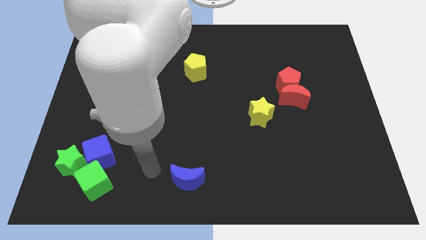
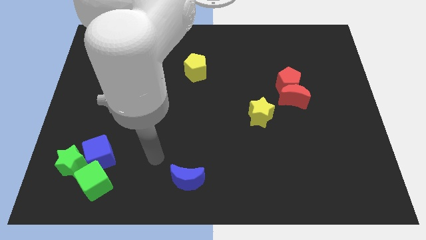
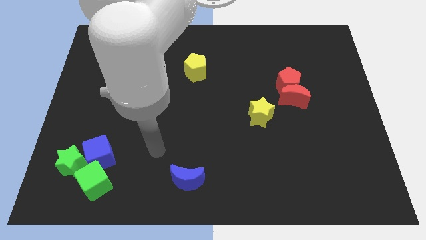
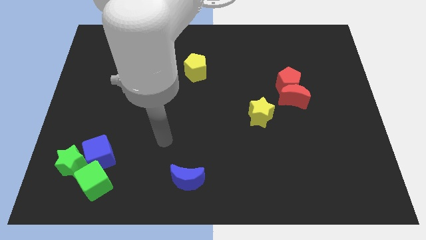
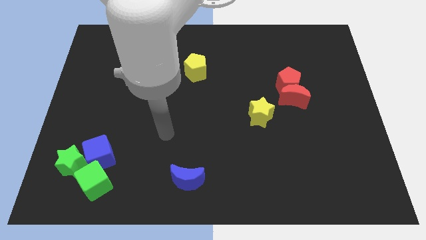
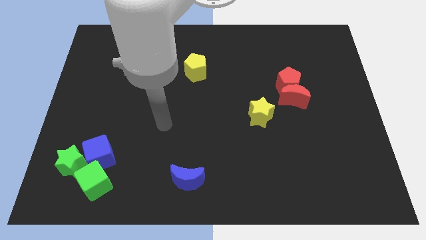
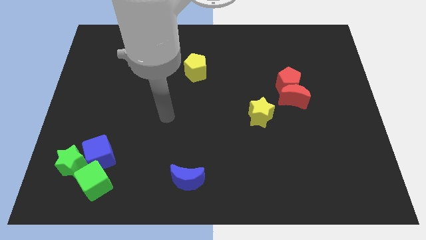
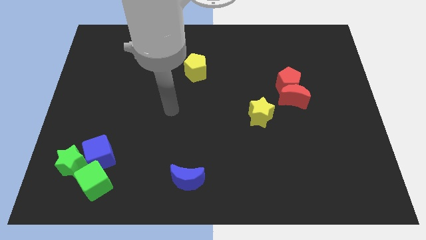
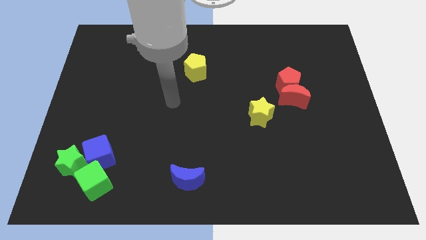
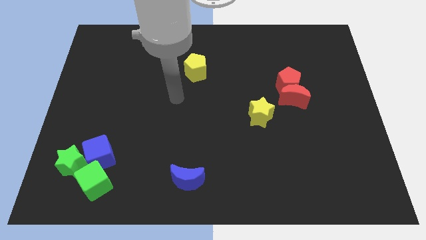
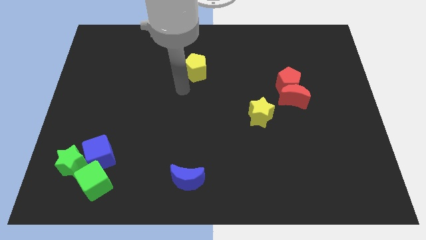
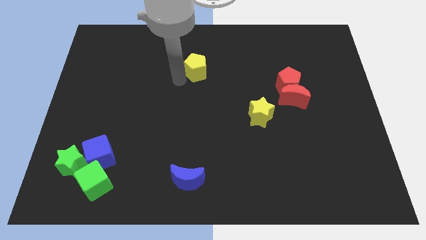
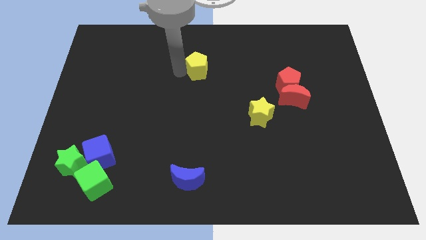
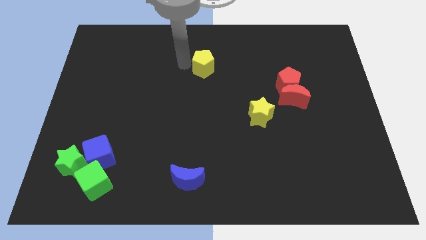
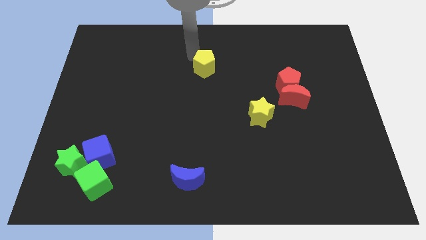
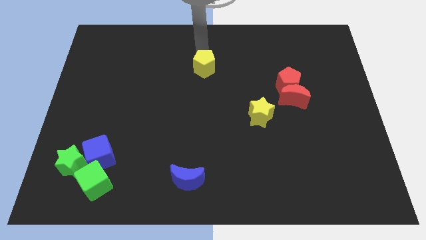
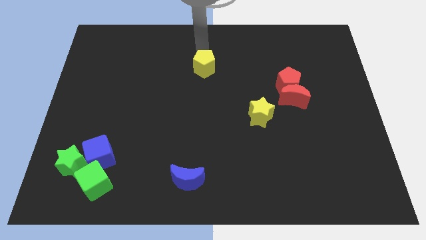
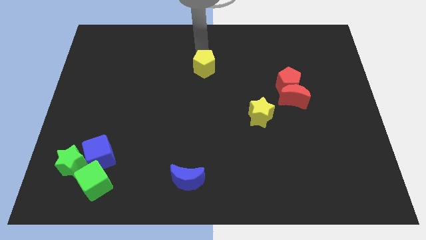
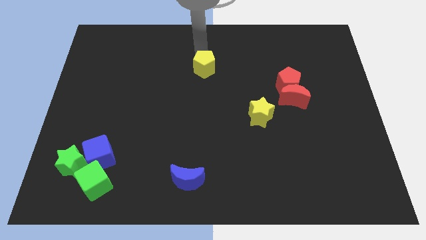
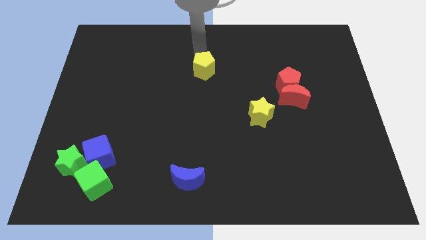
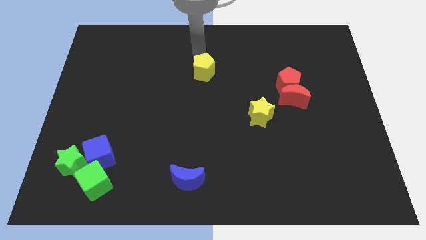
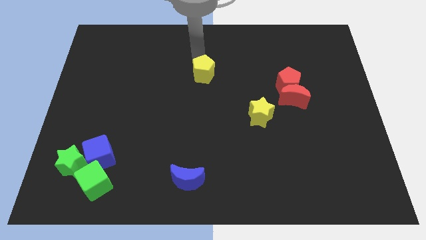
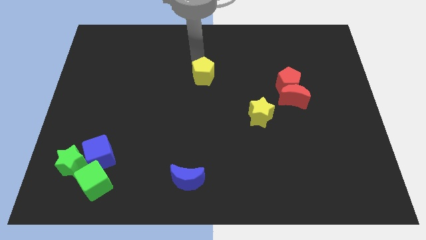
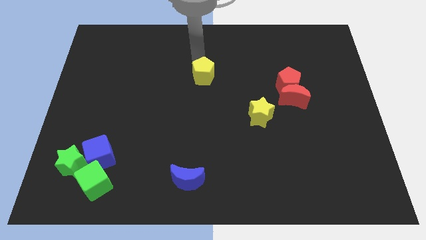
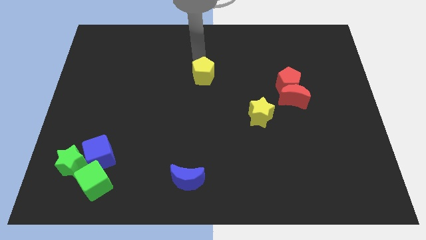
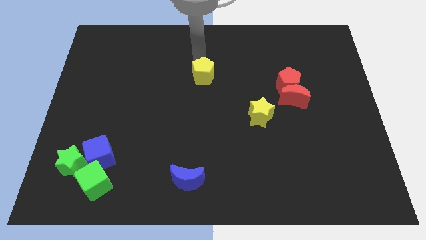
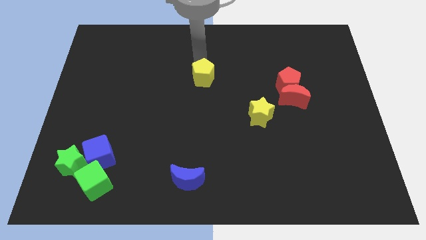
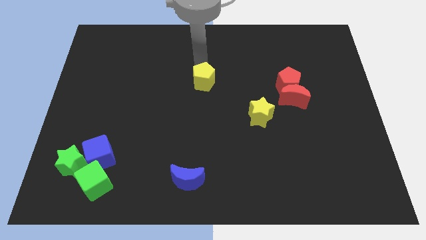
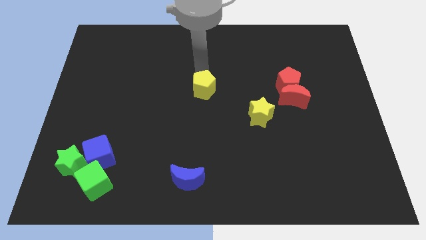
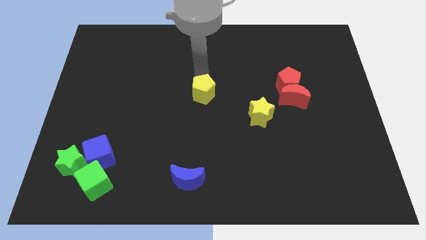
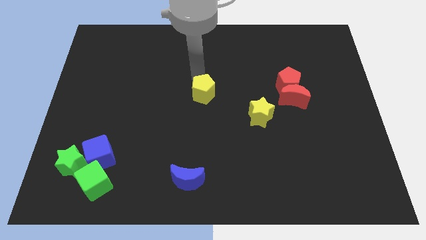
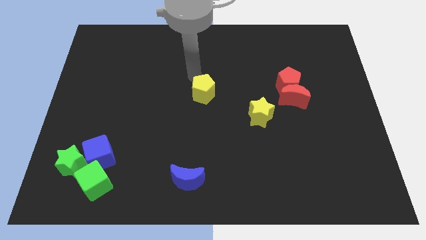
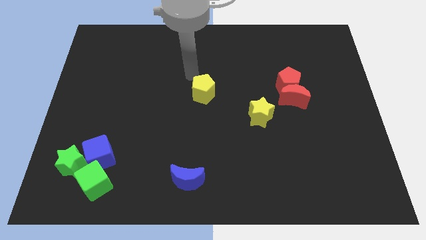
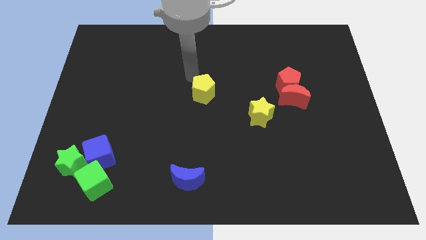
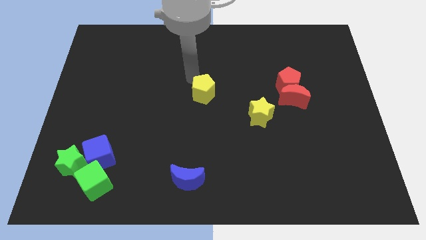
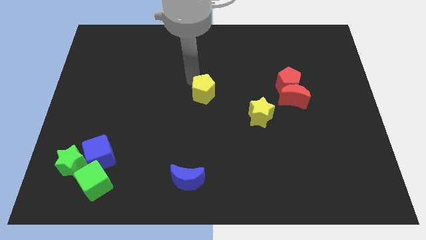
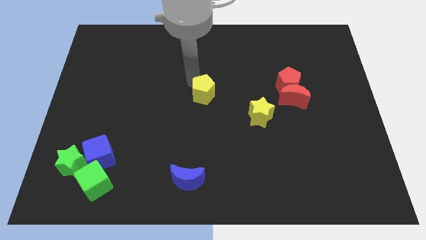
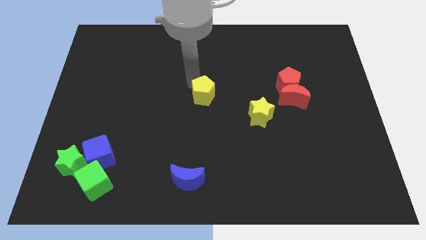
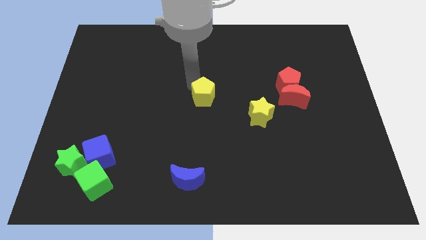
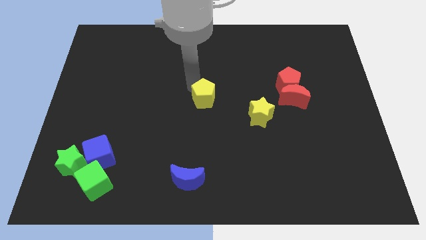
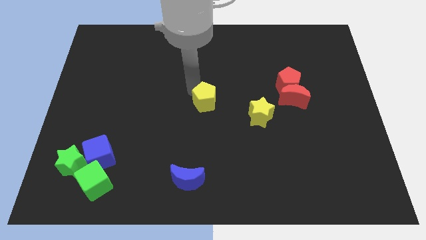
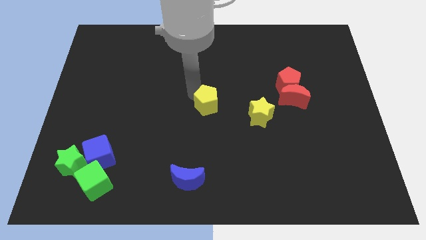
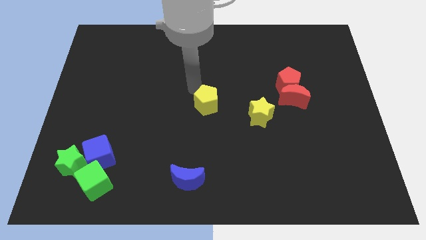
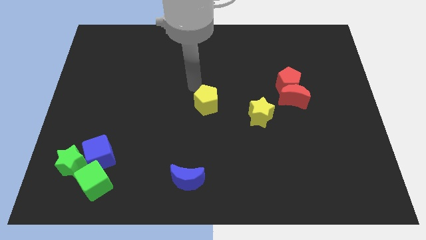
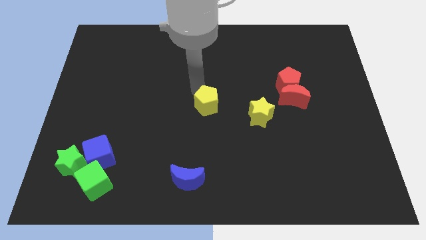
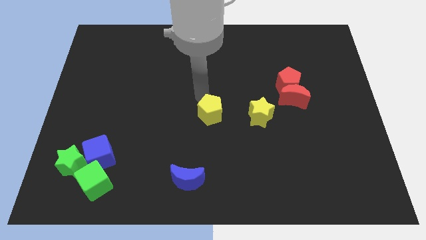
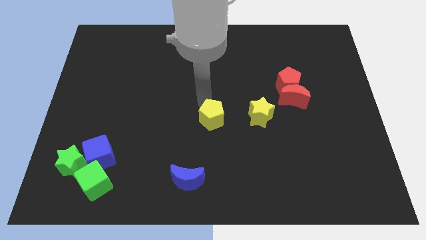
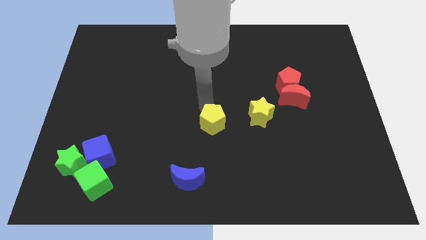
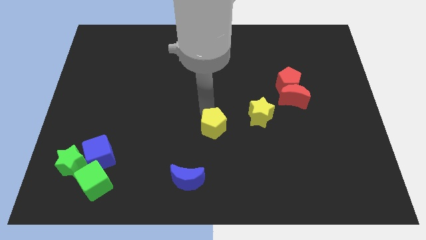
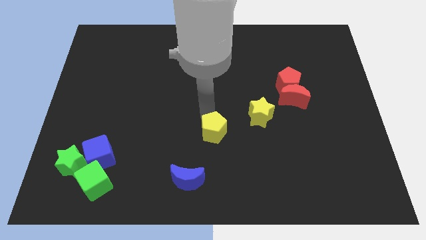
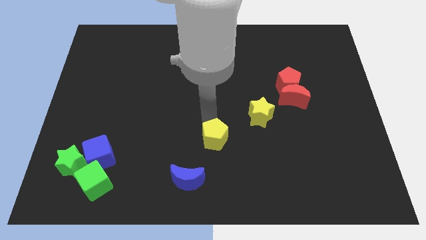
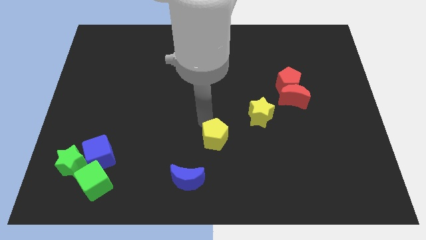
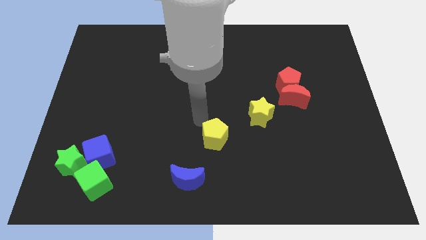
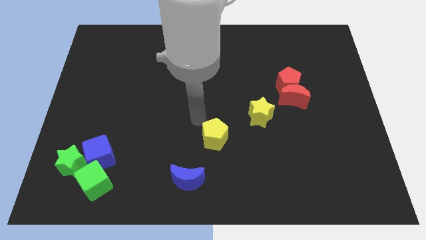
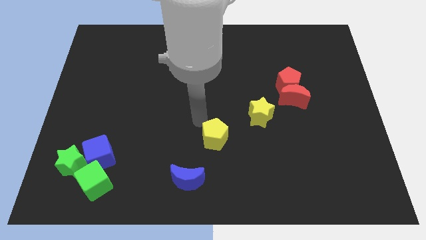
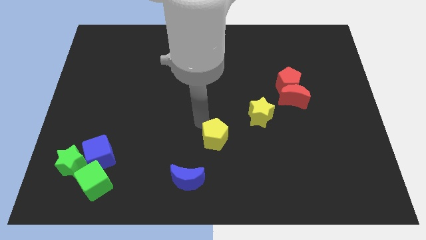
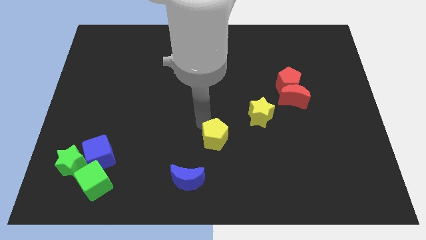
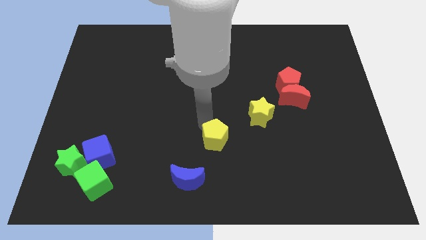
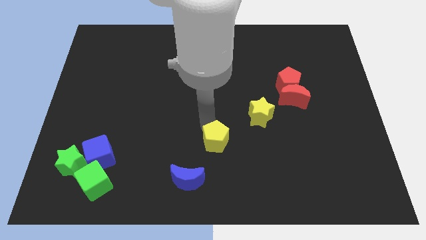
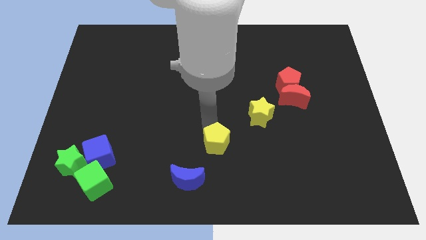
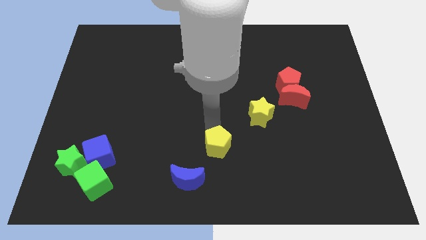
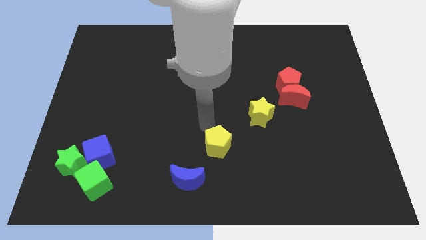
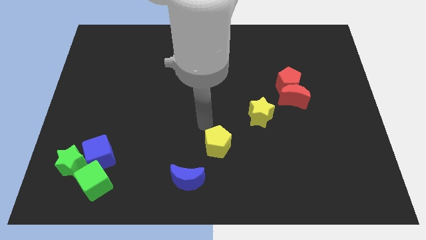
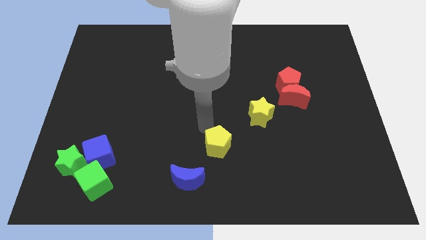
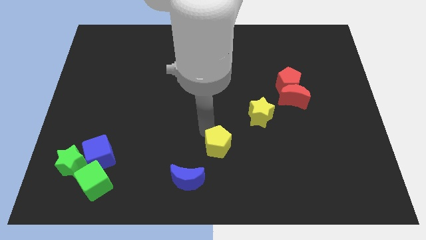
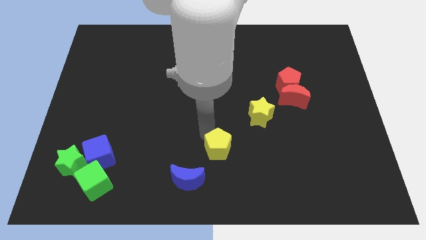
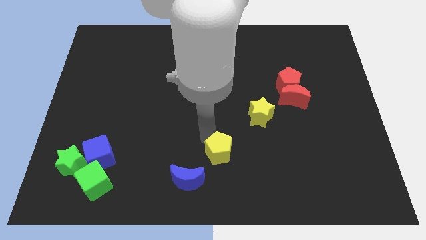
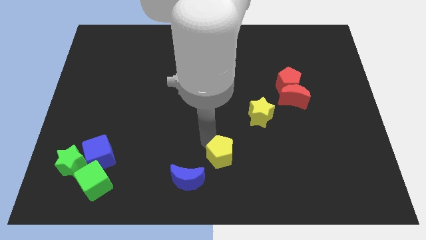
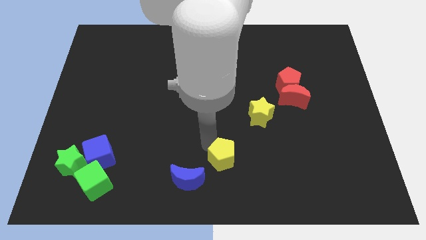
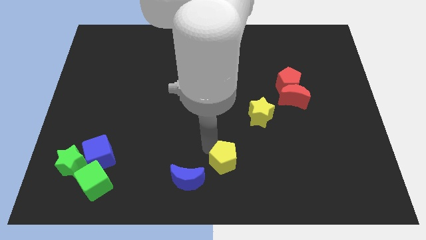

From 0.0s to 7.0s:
put the yellow pentagon to the right of the blue moon

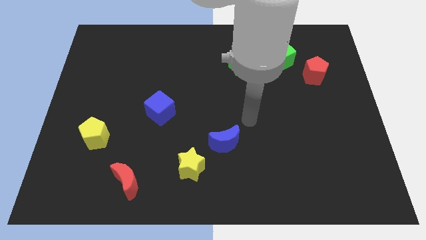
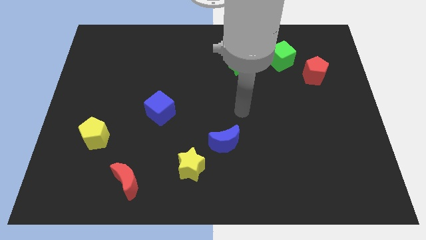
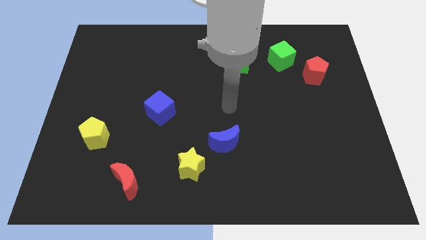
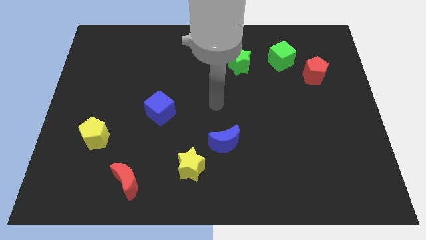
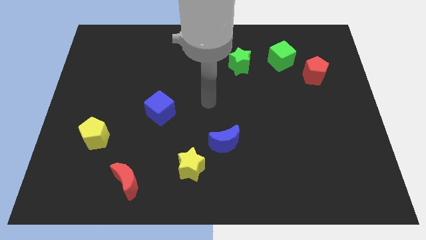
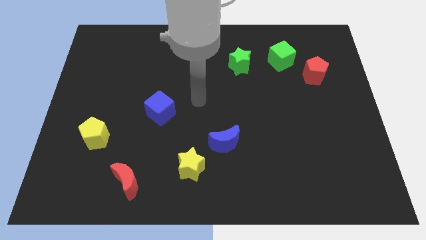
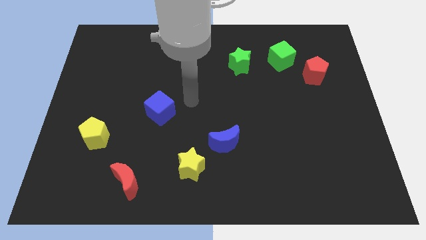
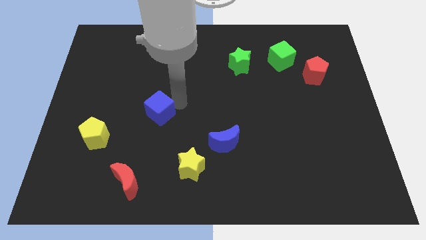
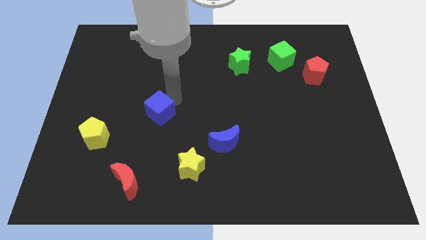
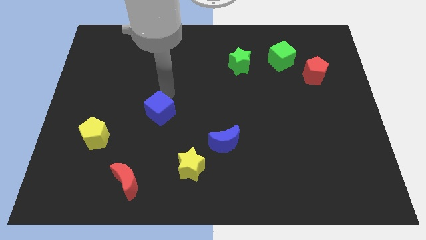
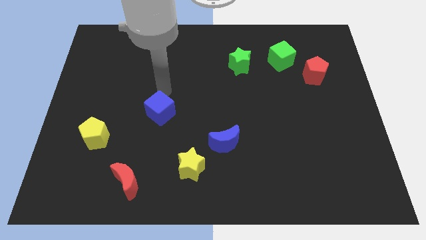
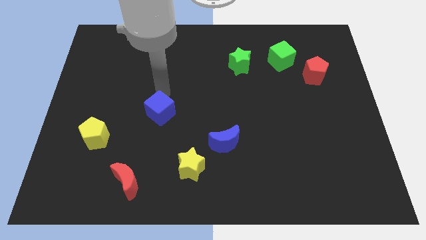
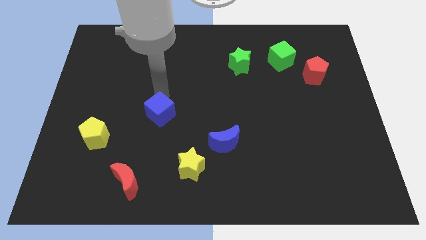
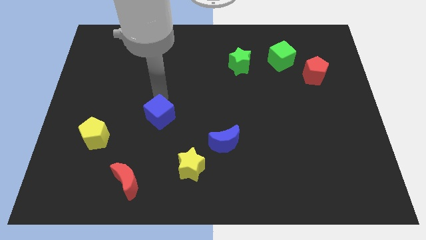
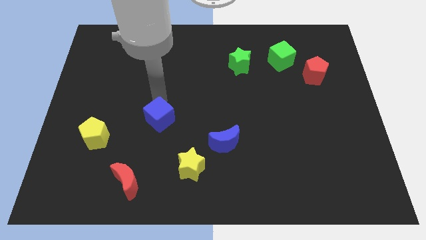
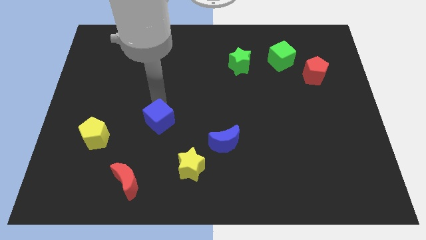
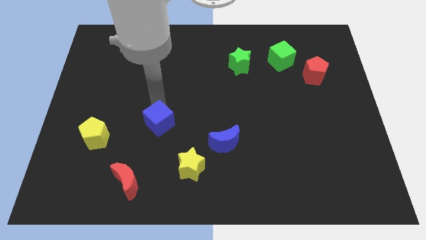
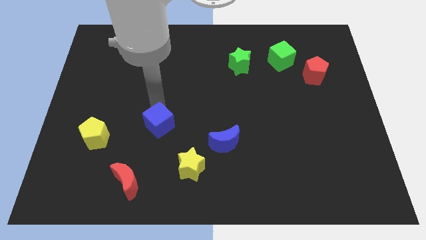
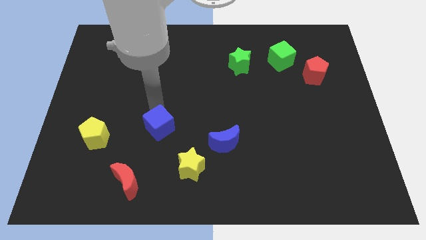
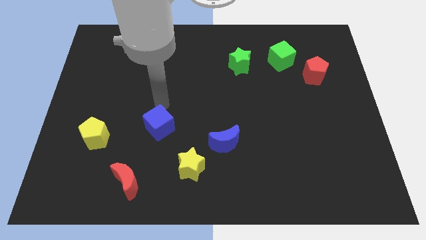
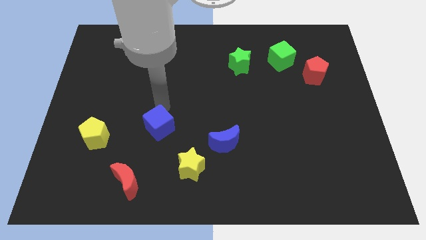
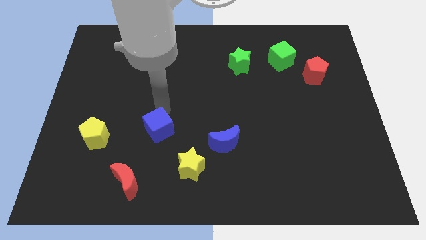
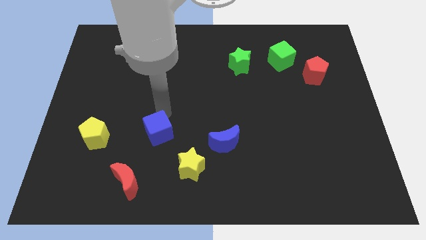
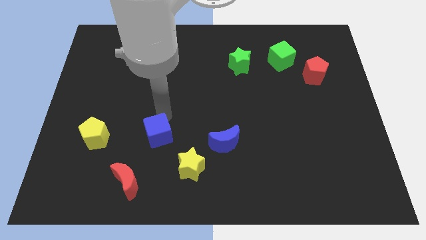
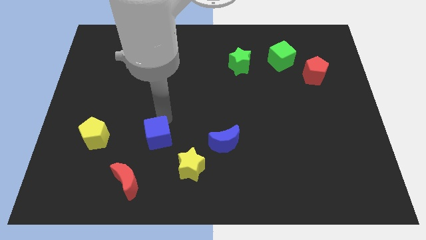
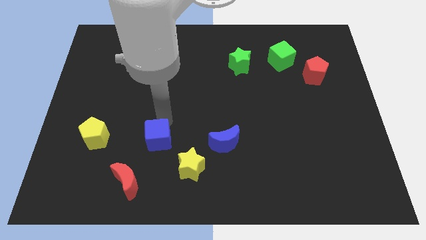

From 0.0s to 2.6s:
push the blue cube to the top right of the red moon
